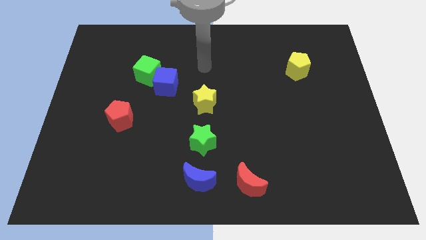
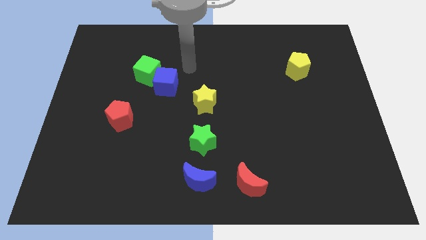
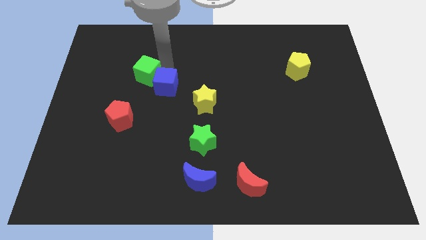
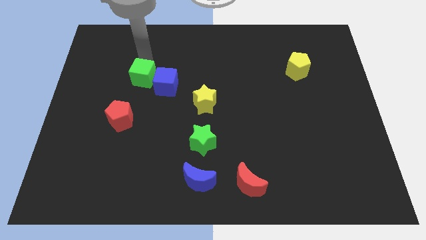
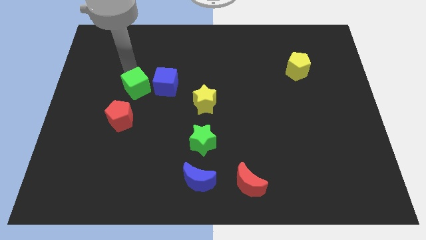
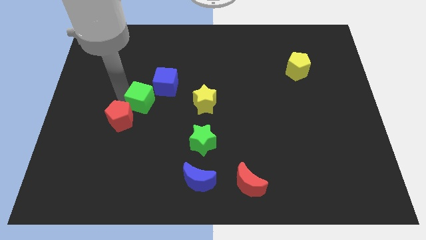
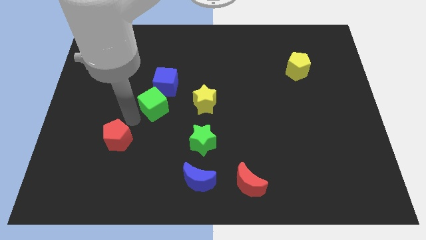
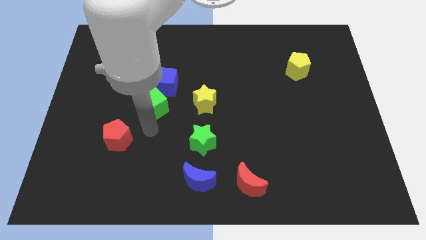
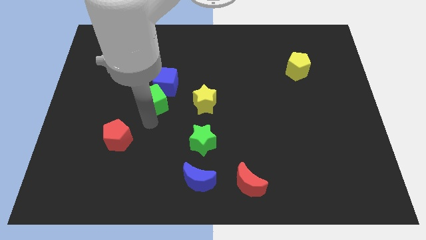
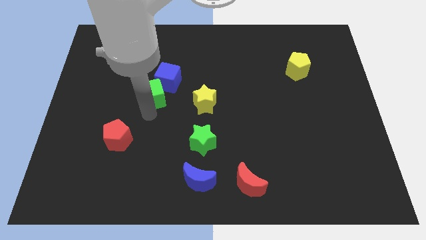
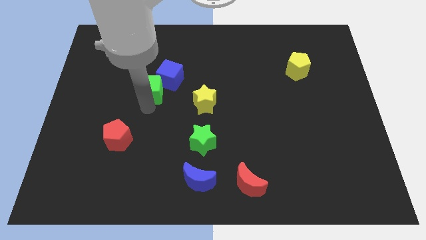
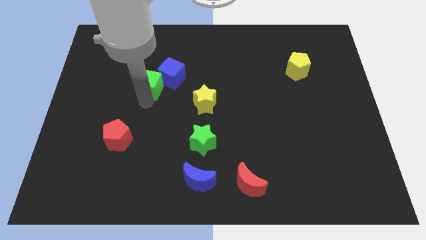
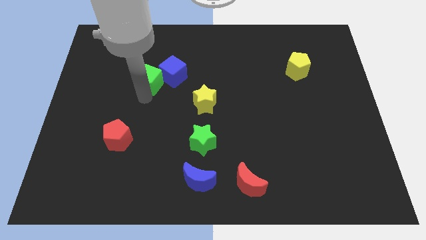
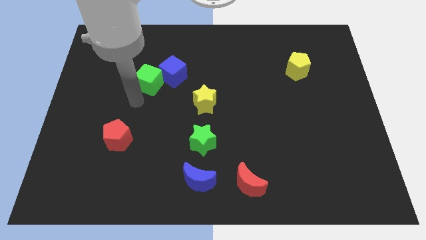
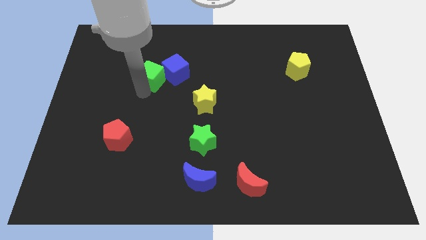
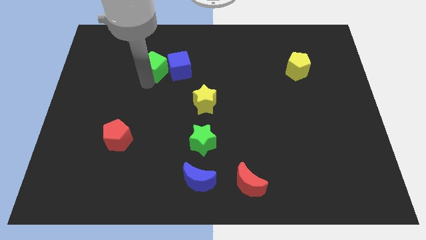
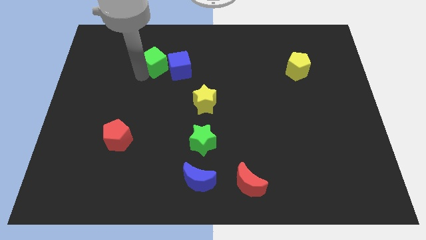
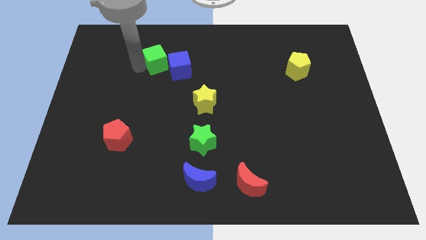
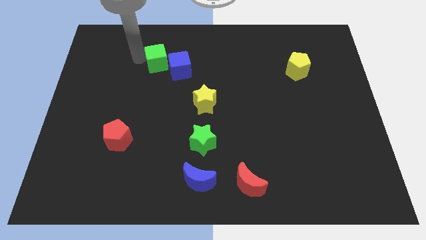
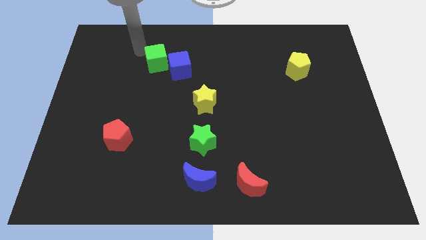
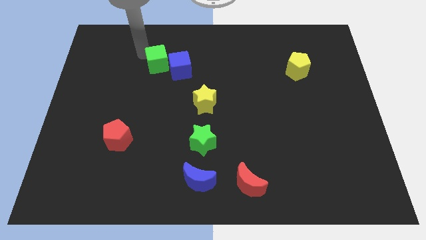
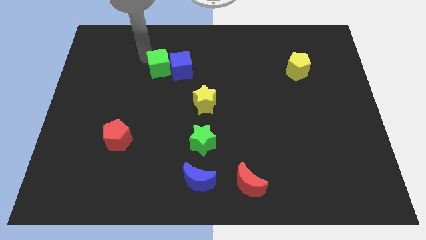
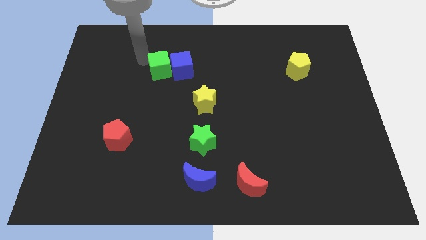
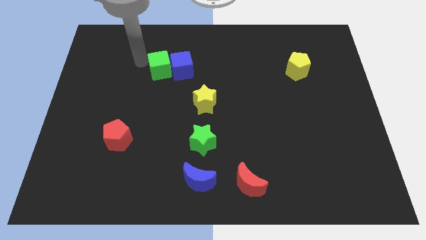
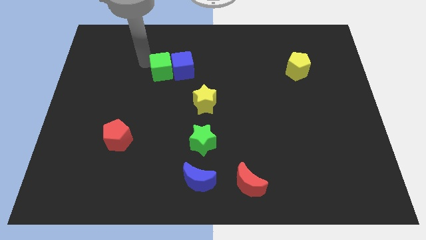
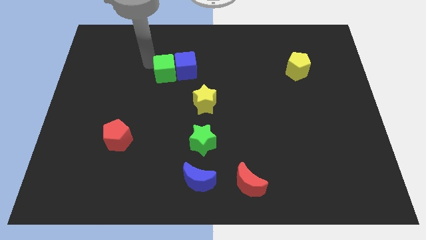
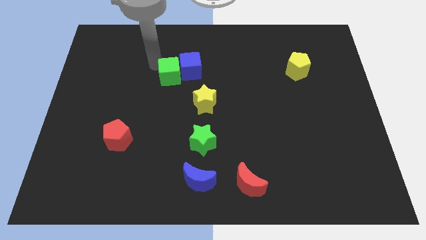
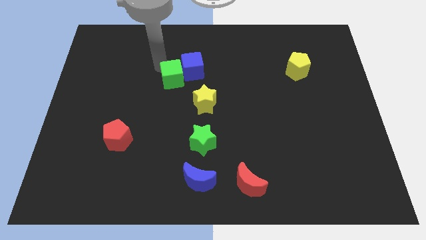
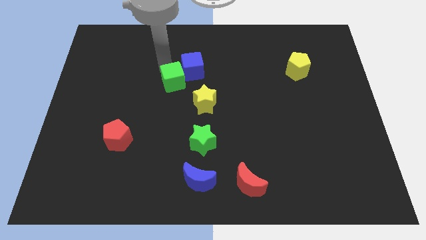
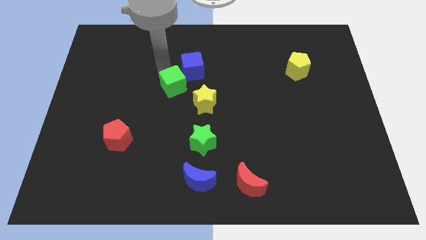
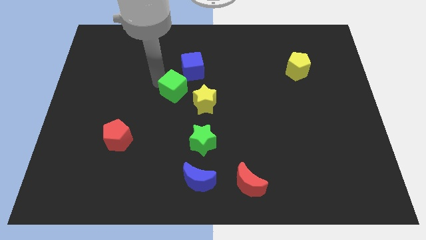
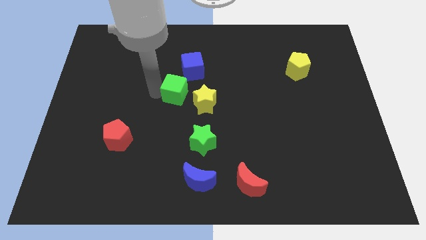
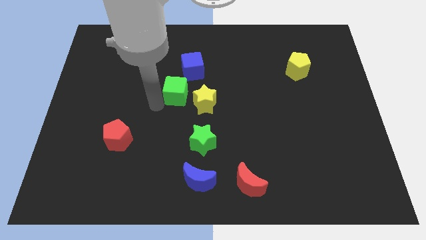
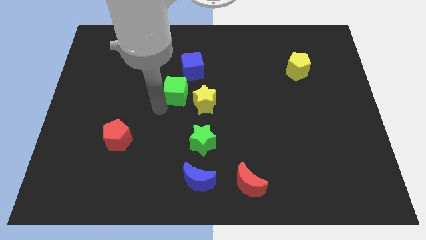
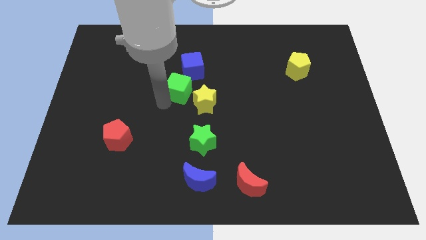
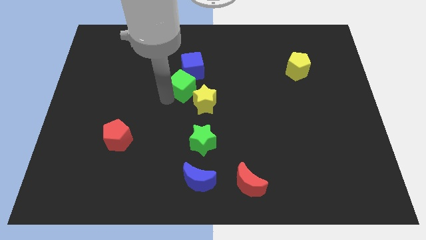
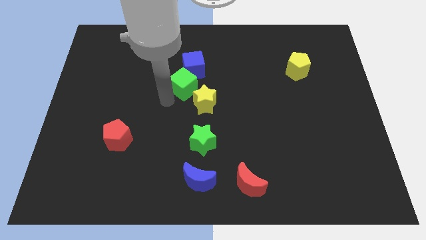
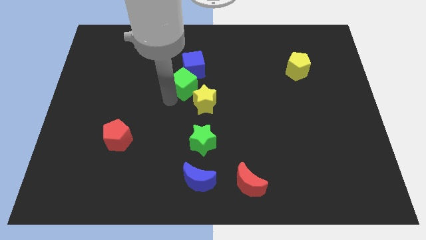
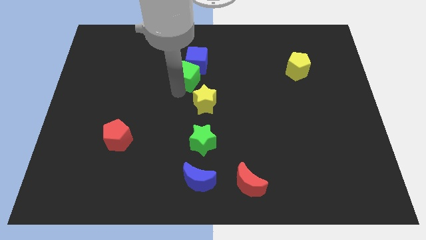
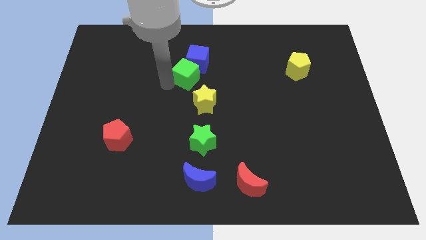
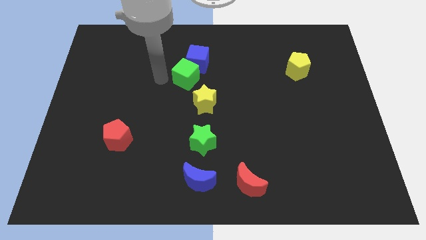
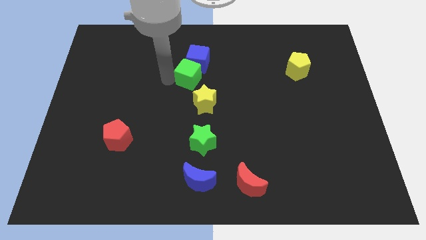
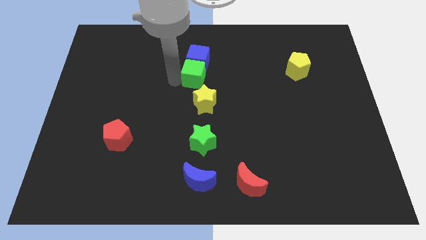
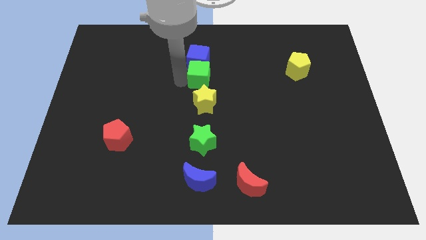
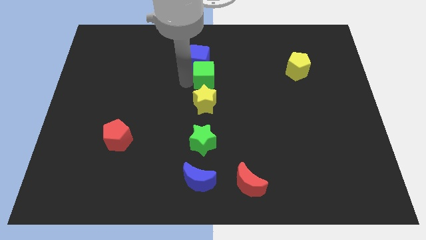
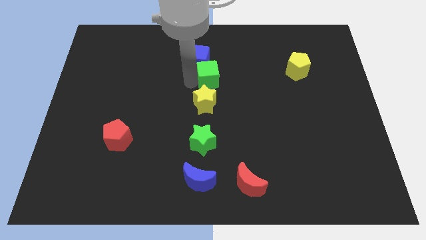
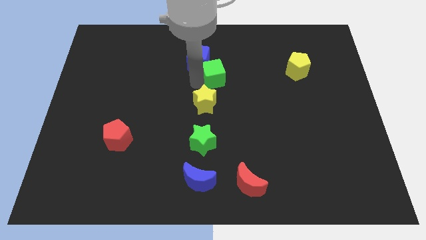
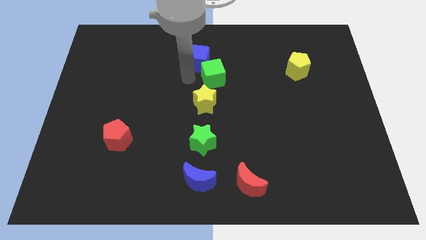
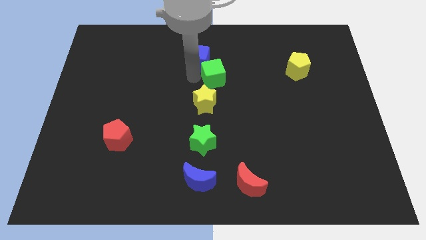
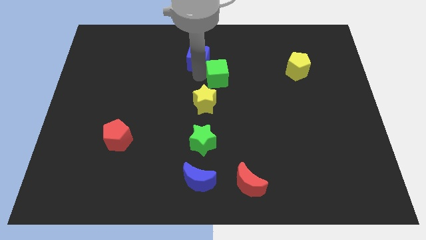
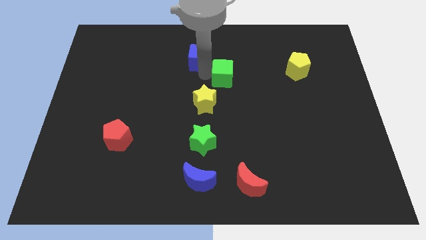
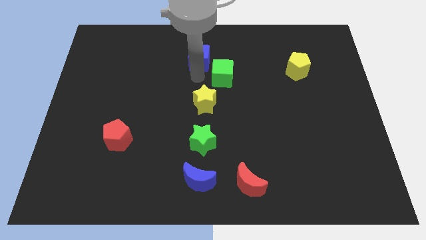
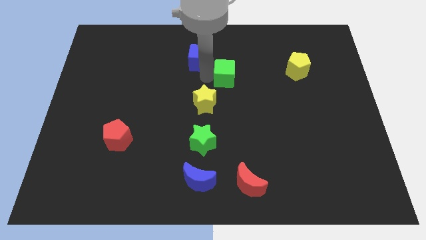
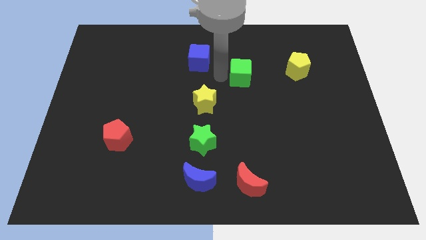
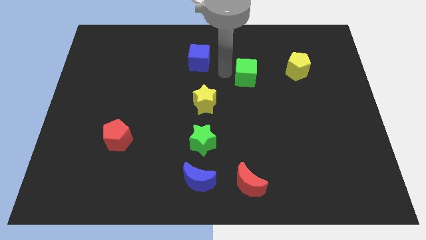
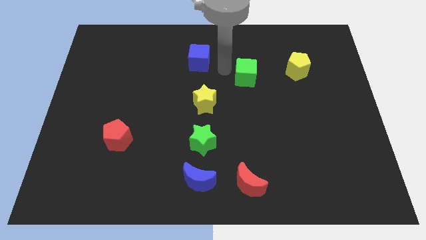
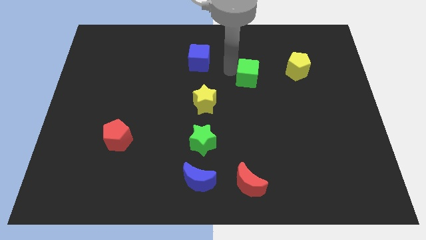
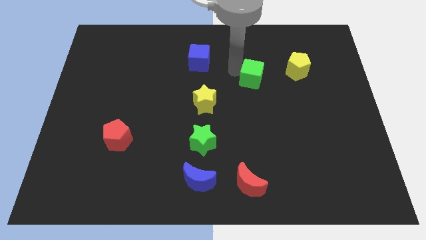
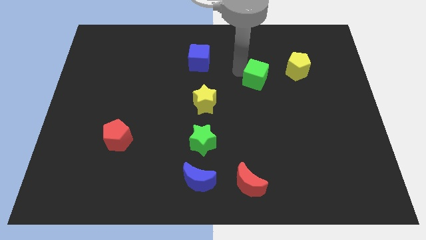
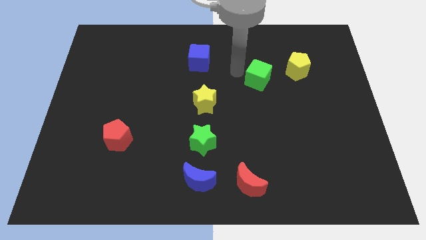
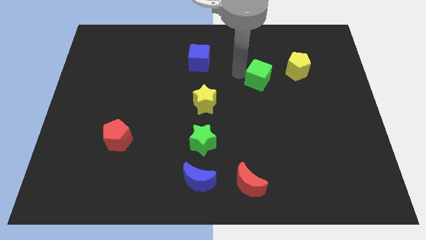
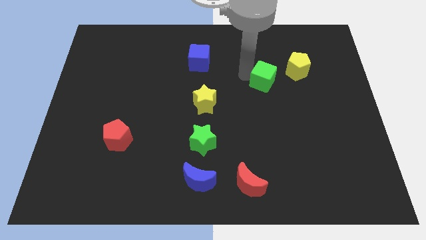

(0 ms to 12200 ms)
move the green cube to the bottom left side of the yellow pentagon

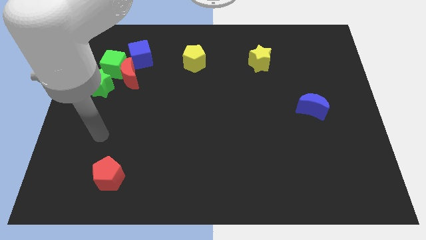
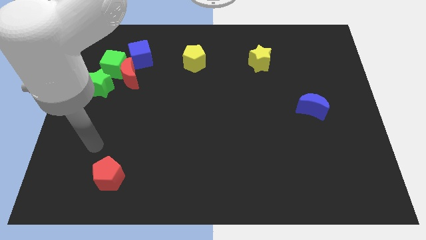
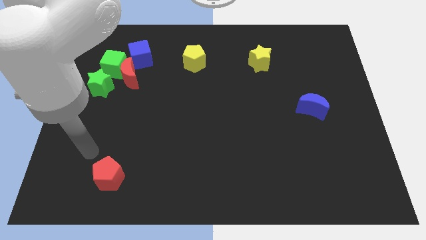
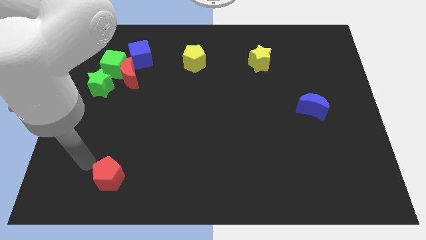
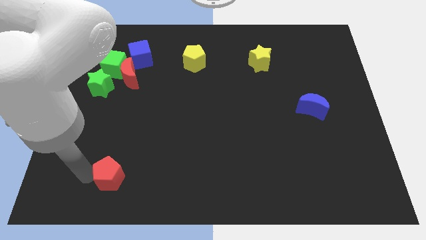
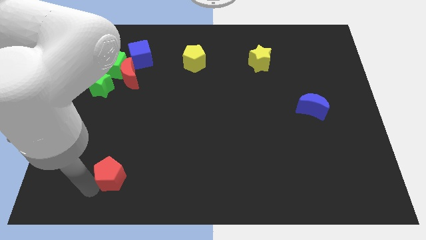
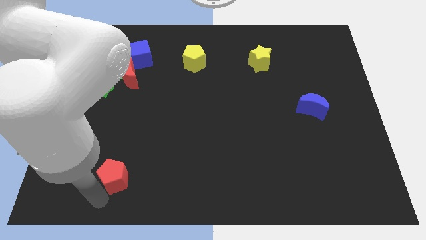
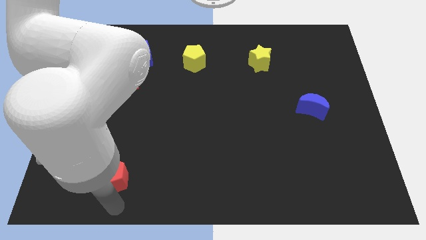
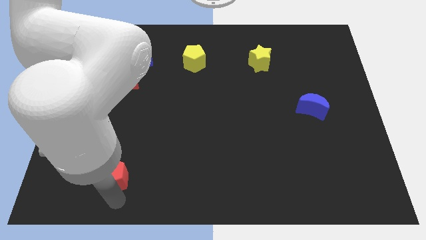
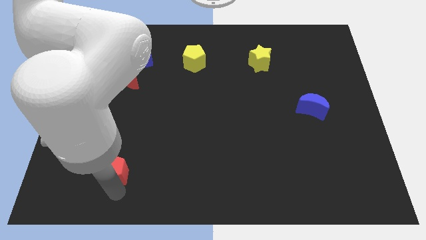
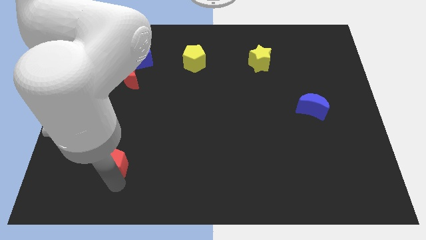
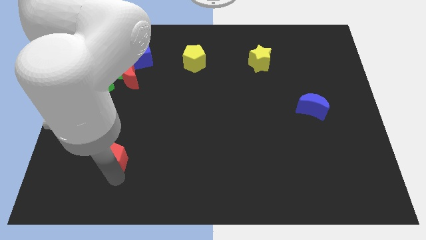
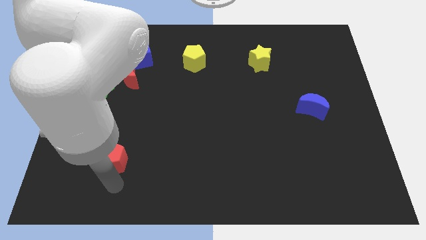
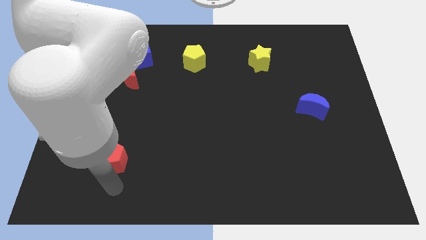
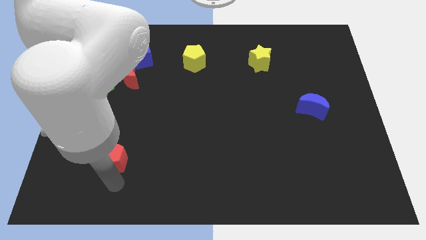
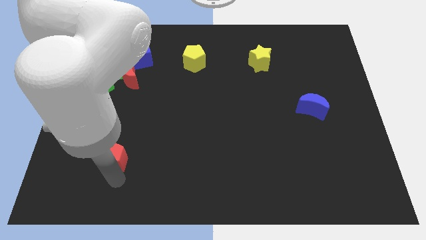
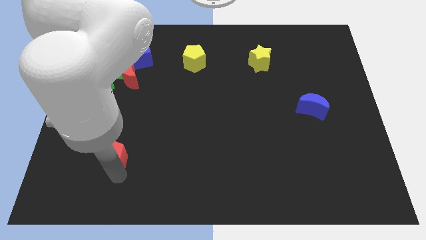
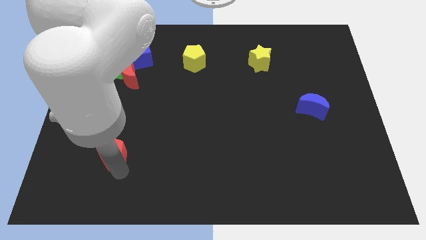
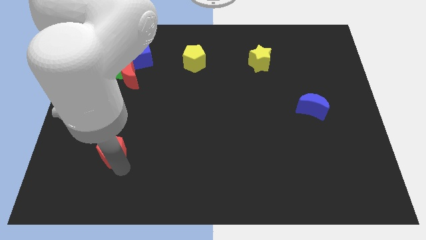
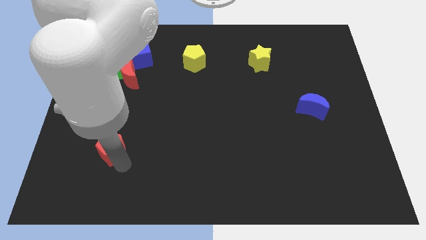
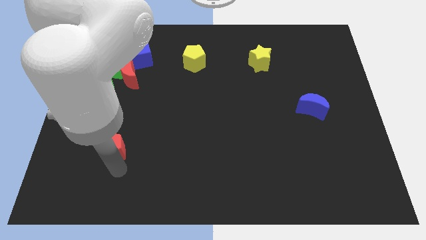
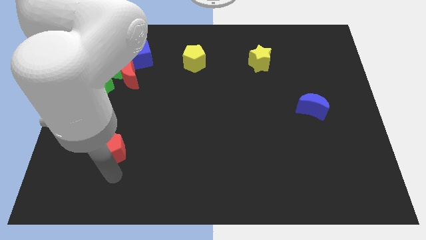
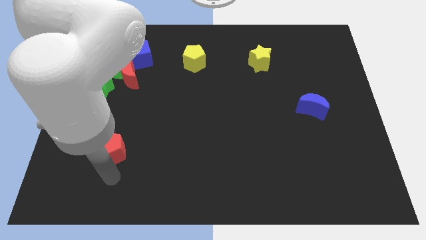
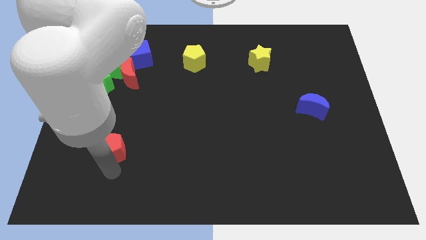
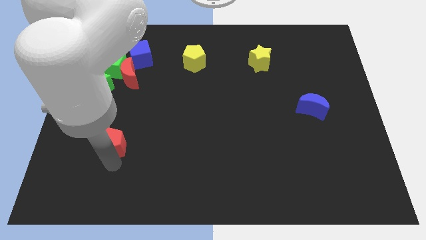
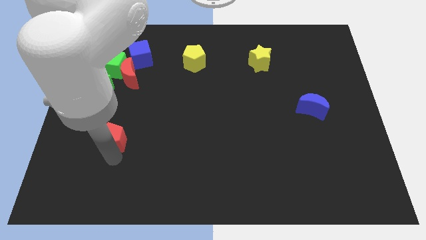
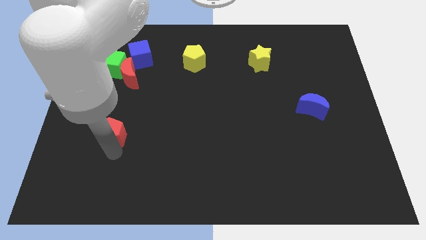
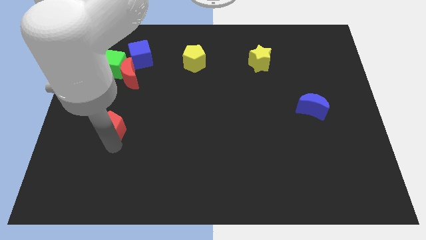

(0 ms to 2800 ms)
move the red pentagon to the bottom of the red moon
